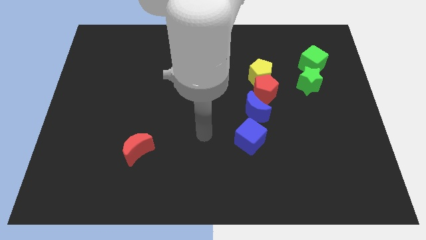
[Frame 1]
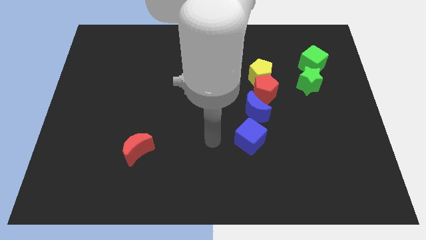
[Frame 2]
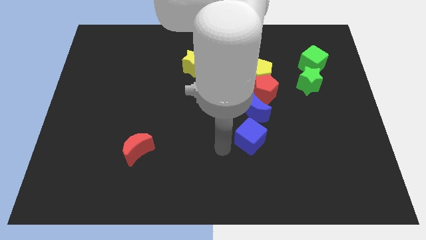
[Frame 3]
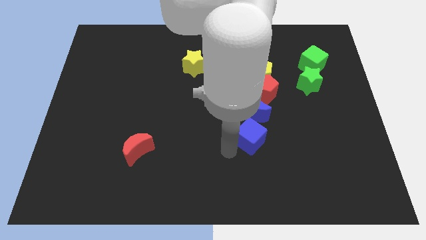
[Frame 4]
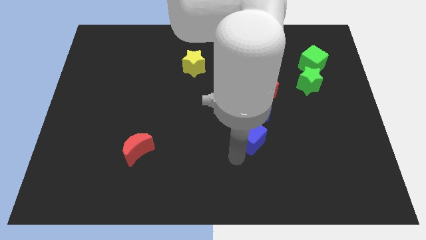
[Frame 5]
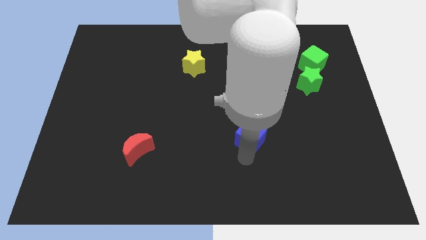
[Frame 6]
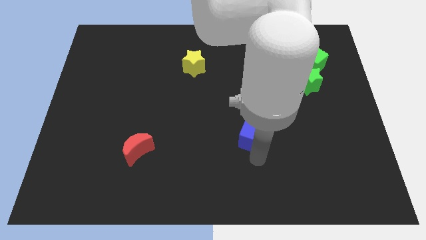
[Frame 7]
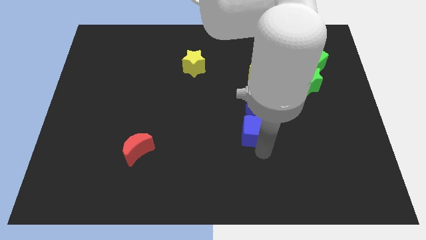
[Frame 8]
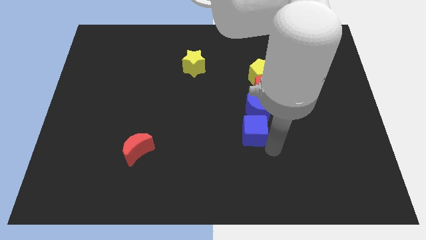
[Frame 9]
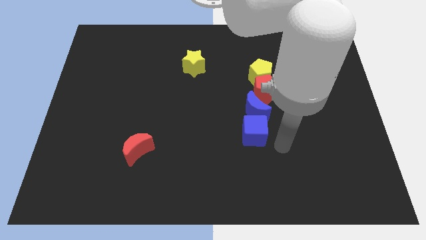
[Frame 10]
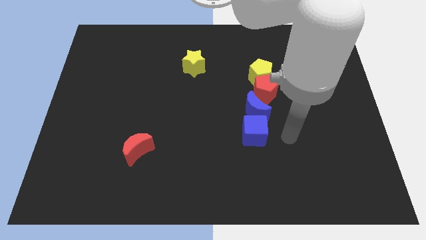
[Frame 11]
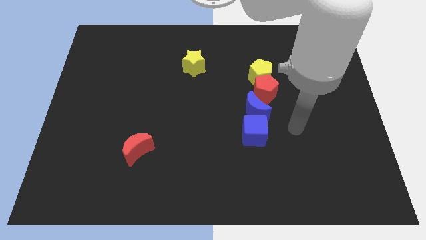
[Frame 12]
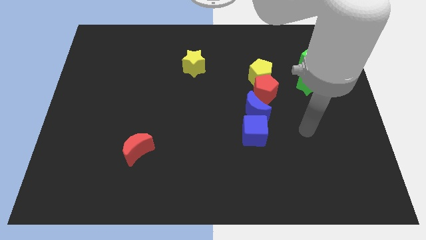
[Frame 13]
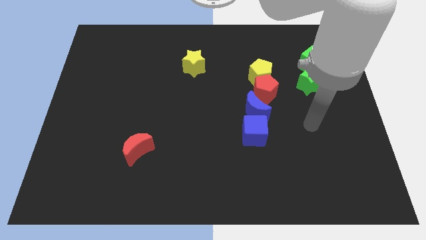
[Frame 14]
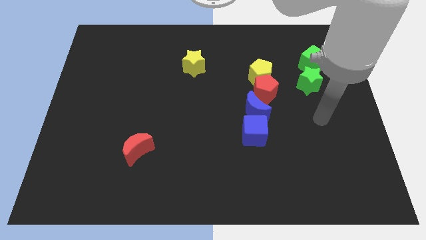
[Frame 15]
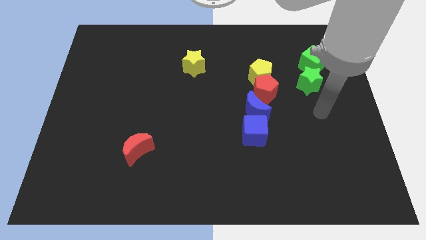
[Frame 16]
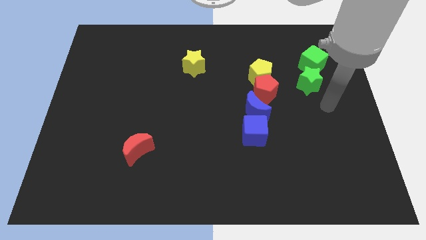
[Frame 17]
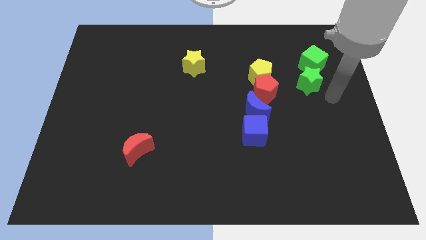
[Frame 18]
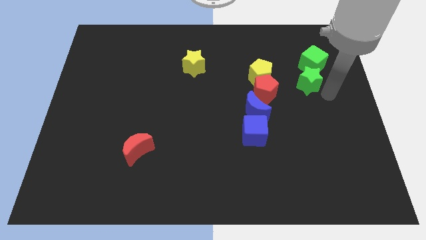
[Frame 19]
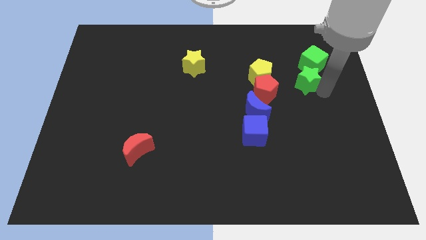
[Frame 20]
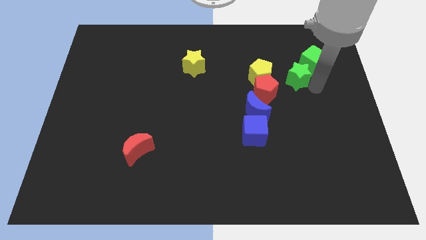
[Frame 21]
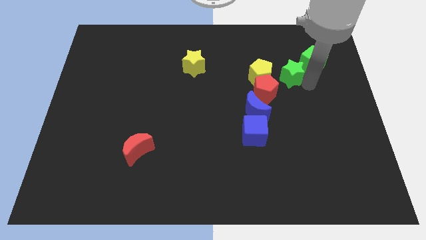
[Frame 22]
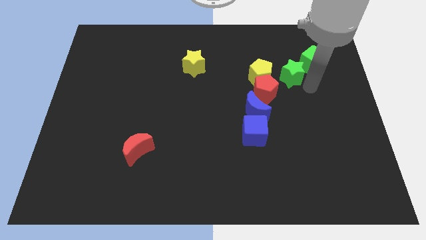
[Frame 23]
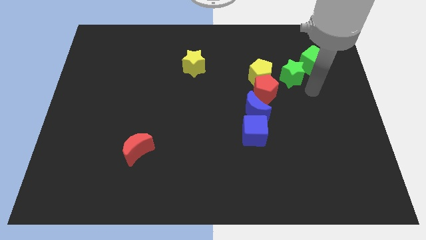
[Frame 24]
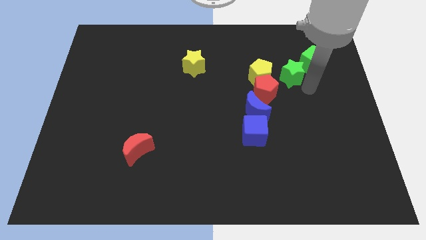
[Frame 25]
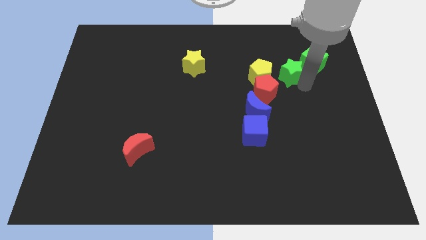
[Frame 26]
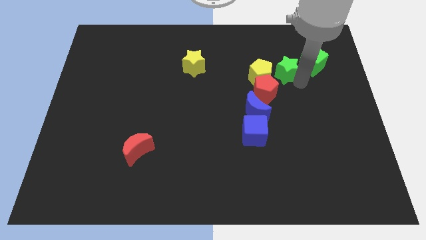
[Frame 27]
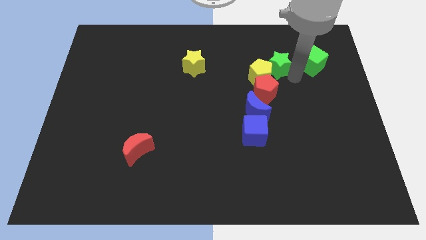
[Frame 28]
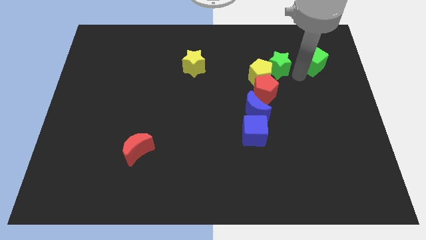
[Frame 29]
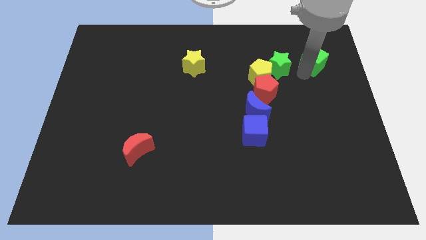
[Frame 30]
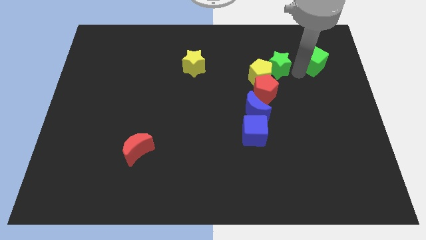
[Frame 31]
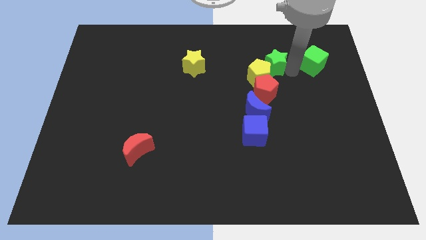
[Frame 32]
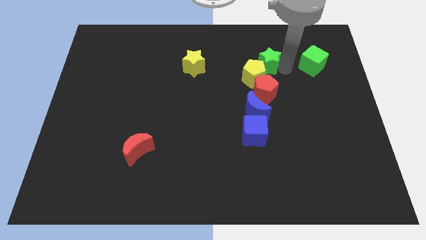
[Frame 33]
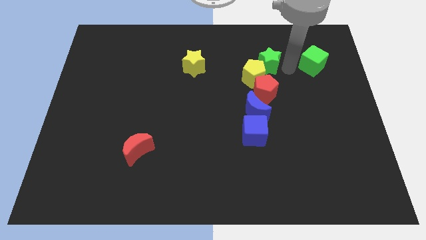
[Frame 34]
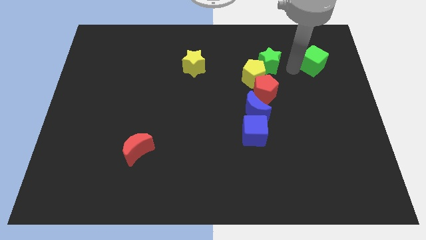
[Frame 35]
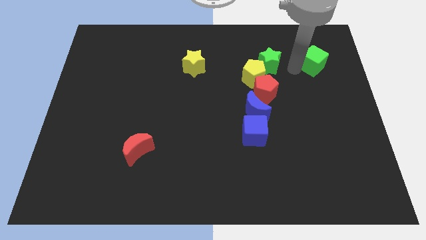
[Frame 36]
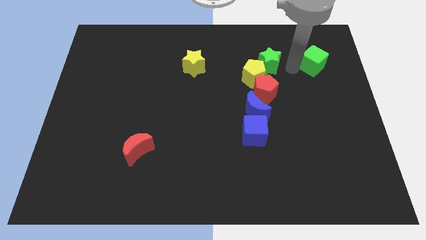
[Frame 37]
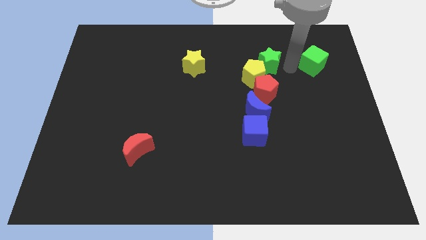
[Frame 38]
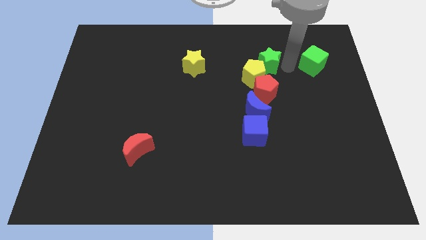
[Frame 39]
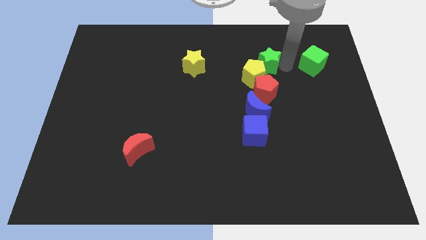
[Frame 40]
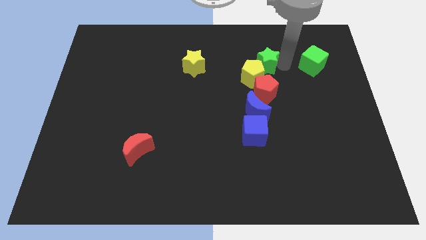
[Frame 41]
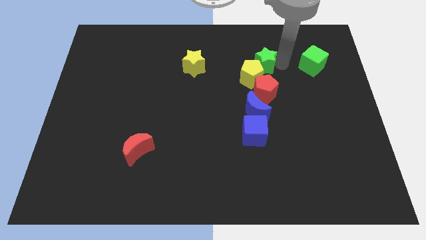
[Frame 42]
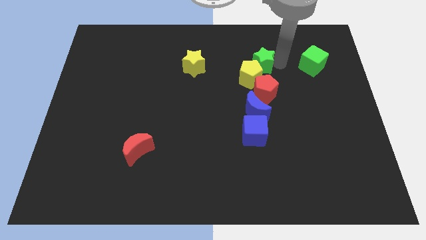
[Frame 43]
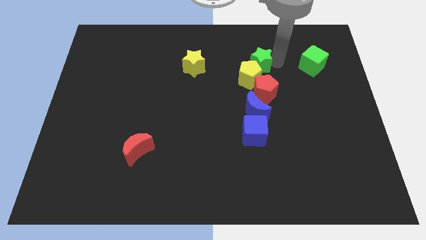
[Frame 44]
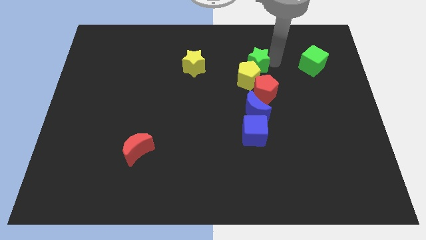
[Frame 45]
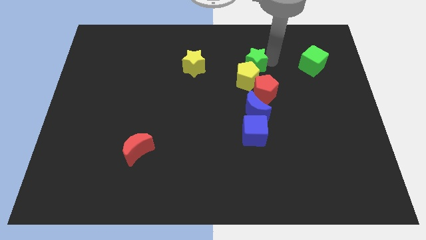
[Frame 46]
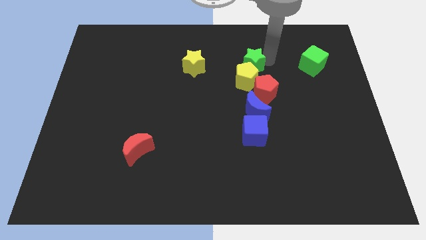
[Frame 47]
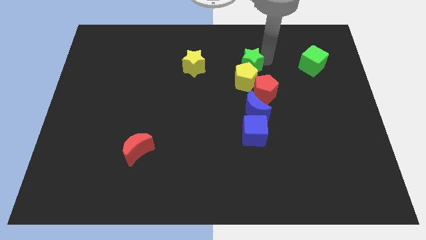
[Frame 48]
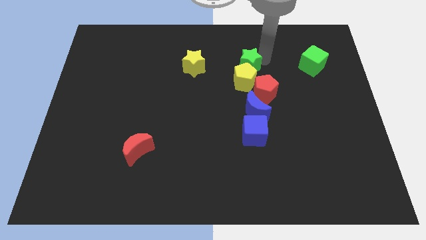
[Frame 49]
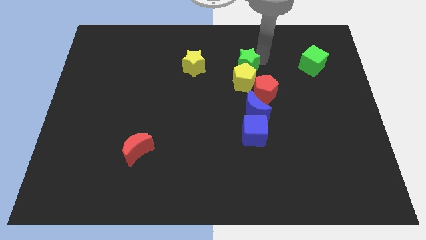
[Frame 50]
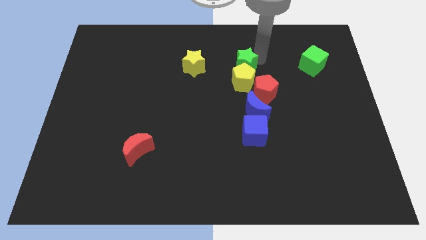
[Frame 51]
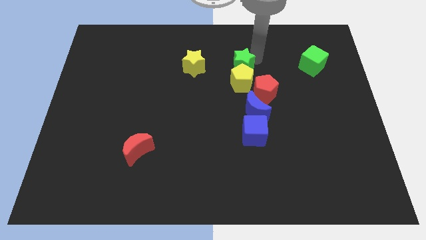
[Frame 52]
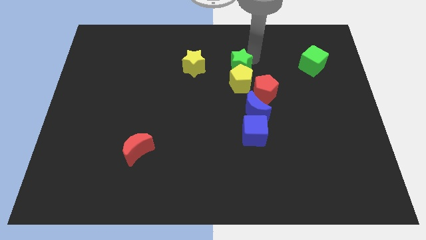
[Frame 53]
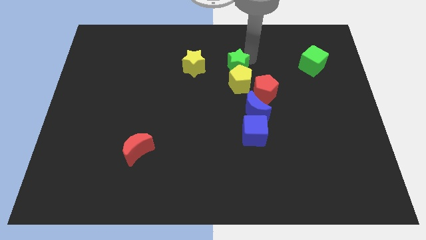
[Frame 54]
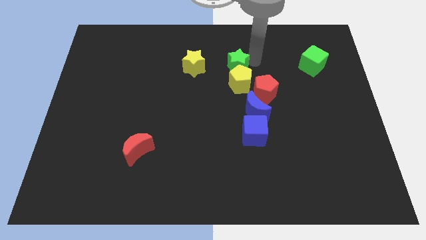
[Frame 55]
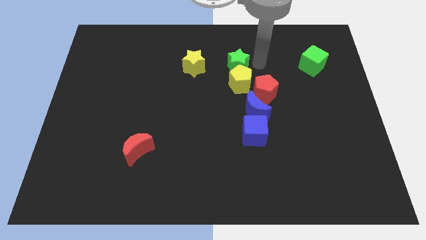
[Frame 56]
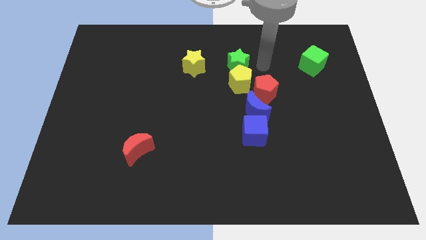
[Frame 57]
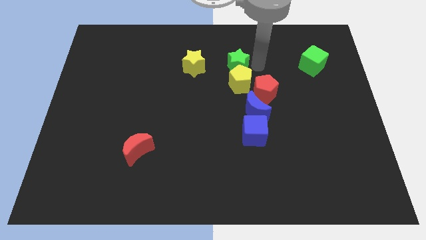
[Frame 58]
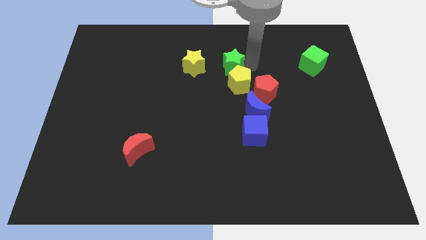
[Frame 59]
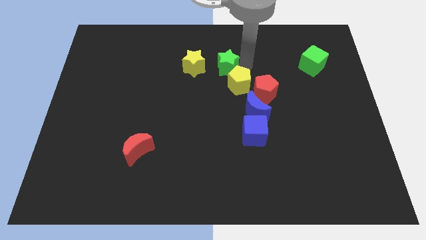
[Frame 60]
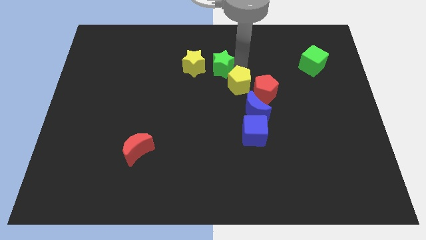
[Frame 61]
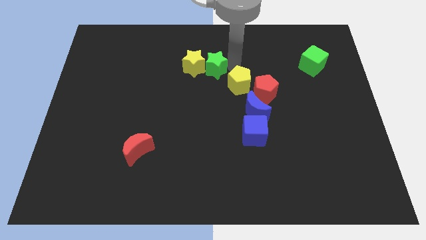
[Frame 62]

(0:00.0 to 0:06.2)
push the green star close to the yellow star

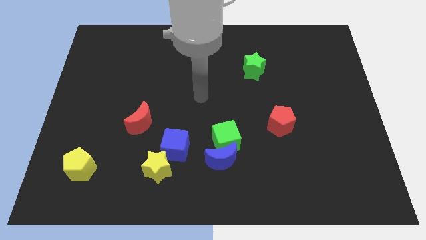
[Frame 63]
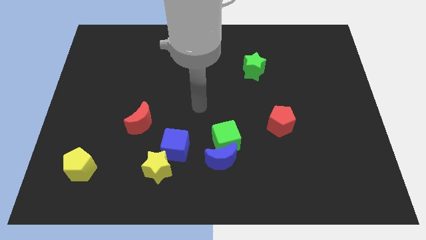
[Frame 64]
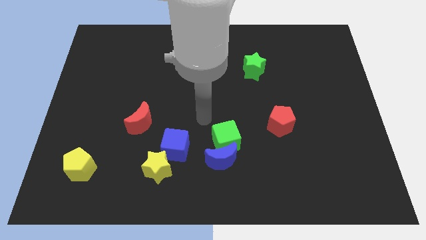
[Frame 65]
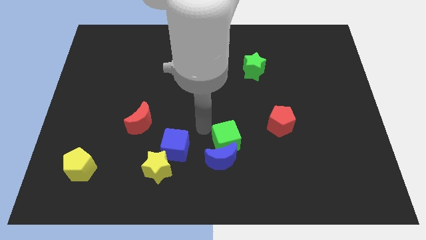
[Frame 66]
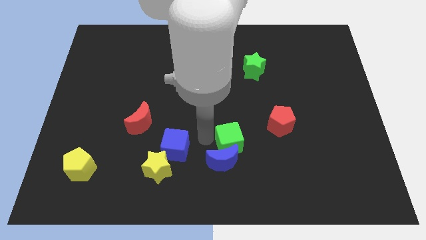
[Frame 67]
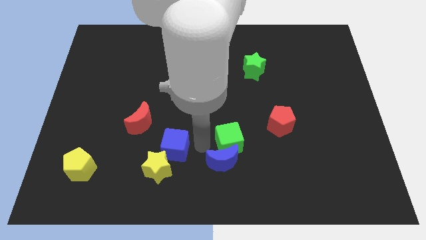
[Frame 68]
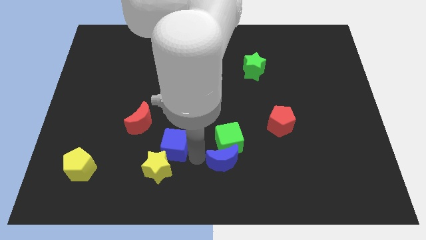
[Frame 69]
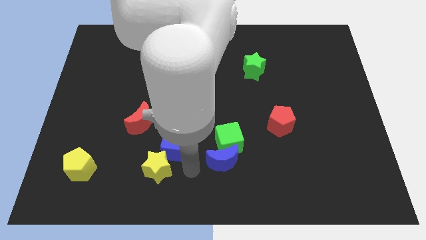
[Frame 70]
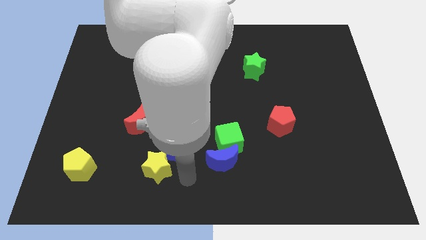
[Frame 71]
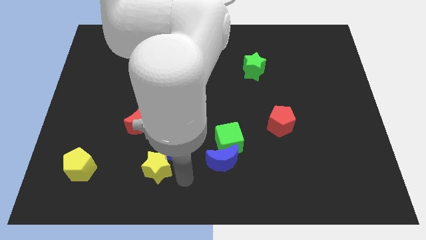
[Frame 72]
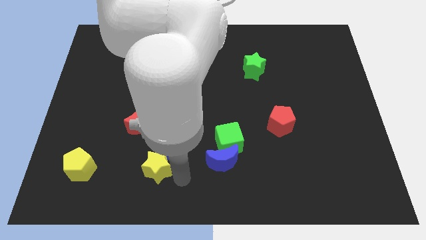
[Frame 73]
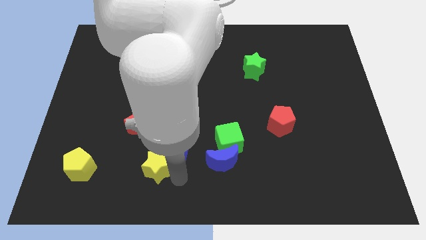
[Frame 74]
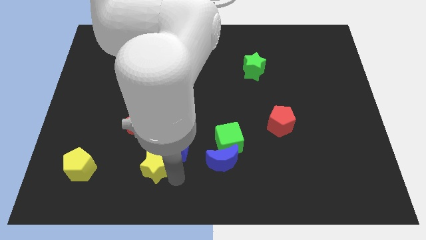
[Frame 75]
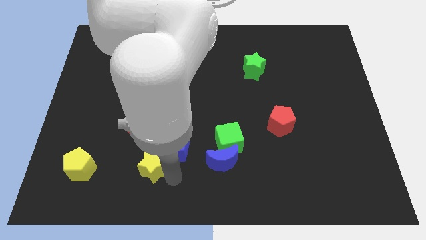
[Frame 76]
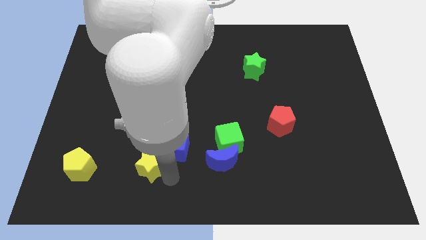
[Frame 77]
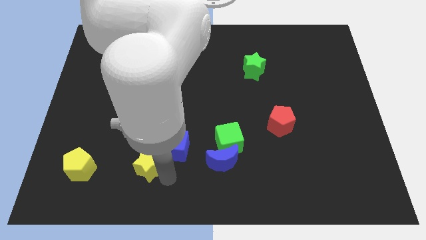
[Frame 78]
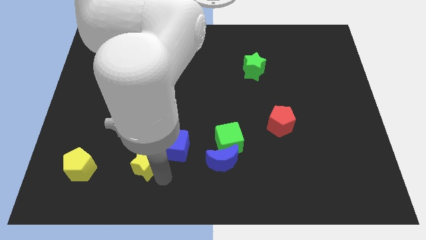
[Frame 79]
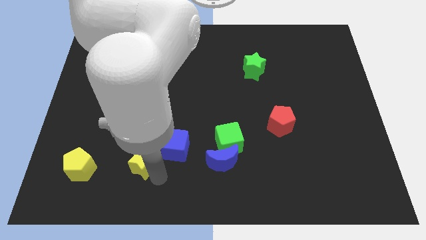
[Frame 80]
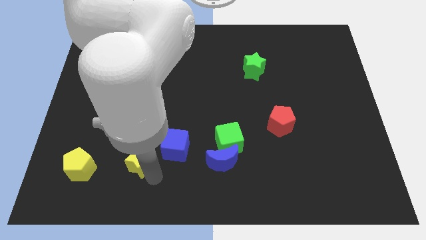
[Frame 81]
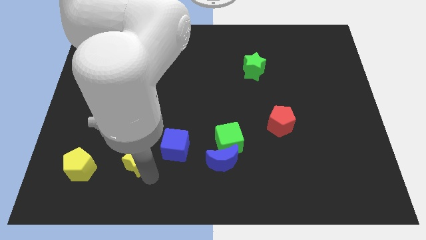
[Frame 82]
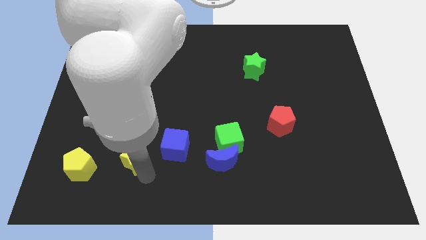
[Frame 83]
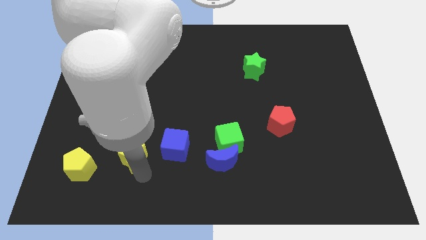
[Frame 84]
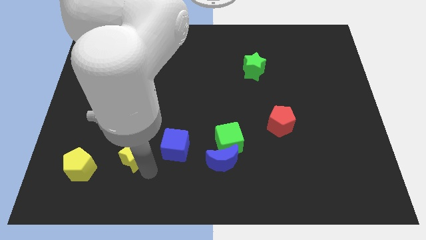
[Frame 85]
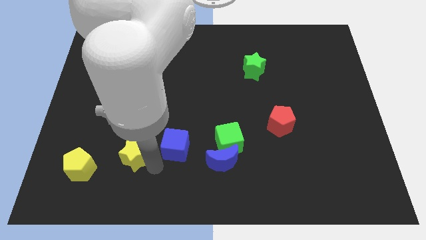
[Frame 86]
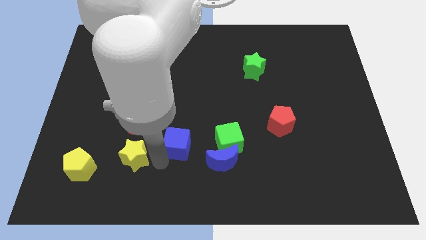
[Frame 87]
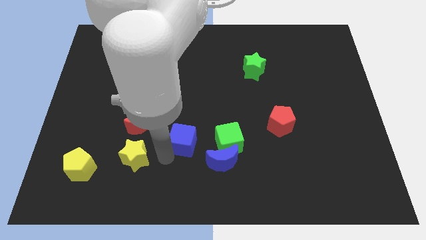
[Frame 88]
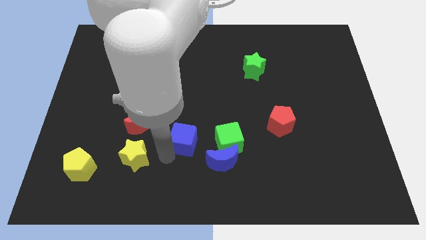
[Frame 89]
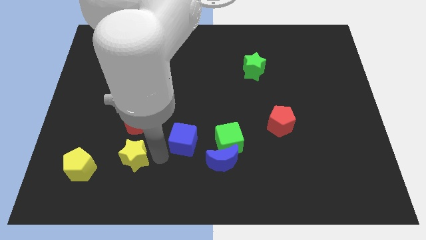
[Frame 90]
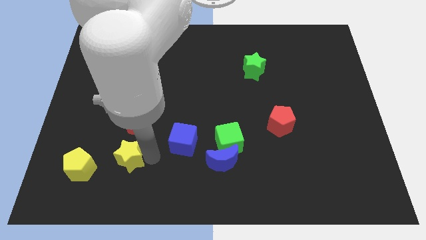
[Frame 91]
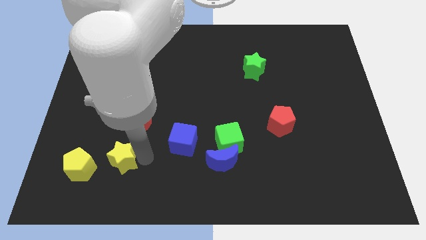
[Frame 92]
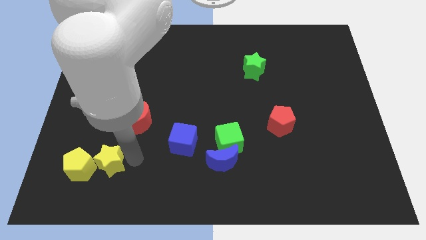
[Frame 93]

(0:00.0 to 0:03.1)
push the yellow star next to the yellow pentagon
